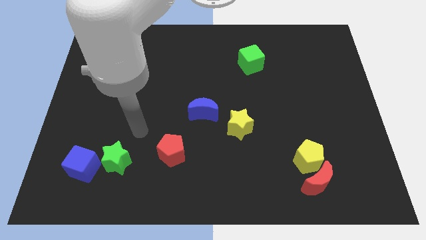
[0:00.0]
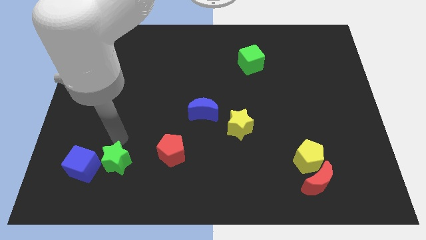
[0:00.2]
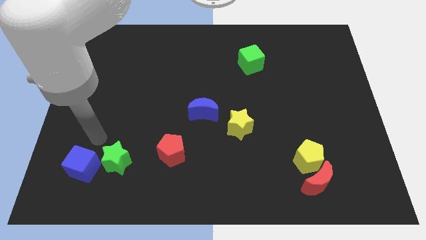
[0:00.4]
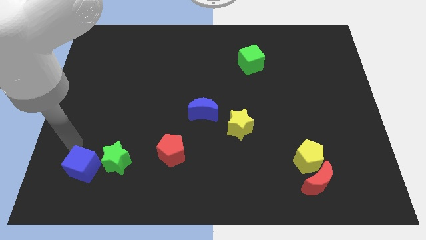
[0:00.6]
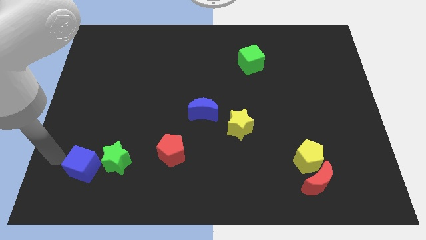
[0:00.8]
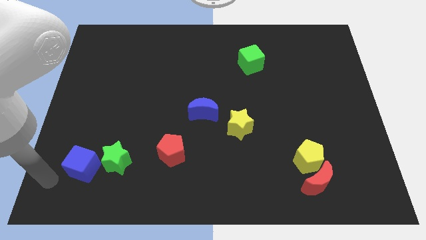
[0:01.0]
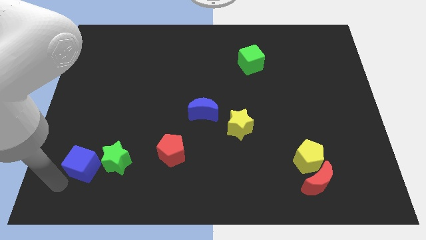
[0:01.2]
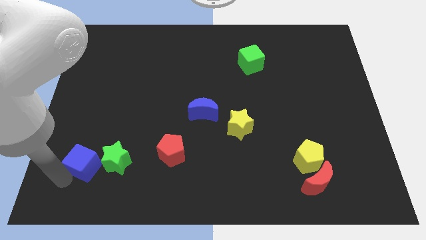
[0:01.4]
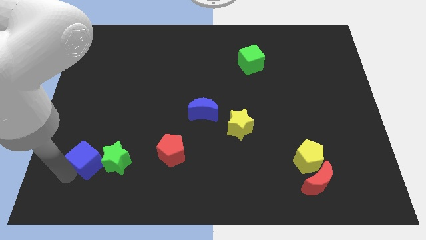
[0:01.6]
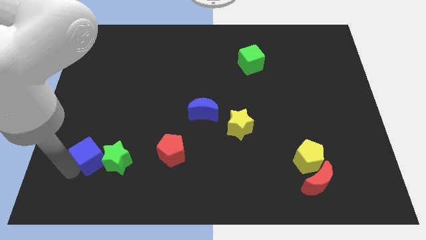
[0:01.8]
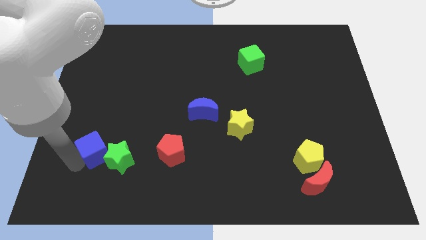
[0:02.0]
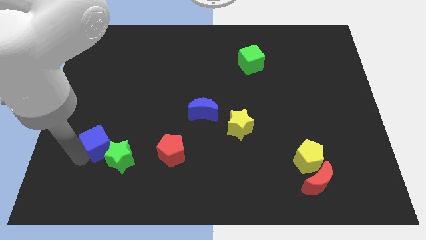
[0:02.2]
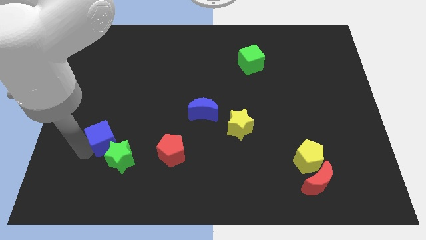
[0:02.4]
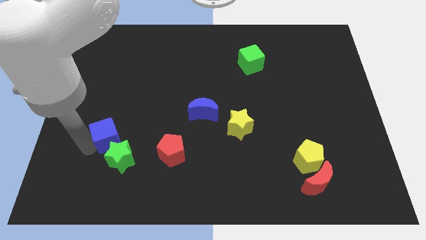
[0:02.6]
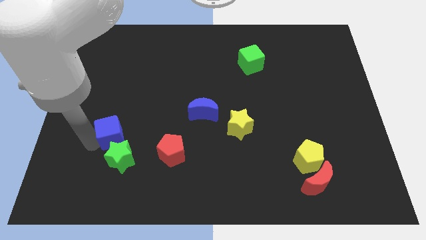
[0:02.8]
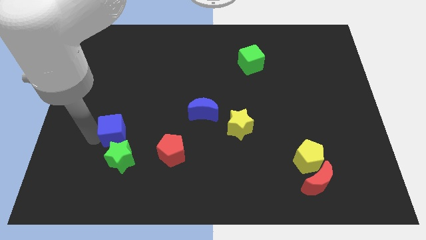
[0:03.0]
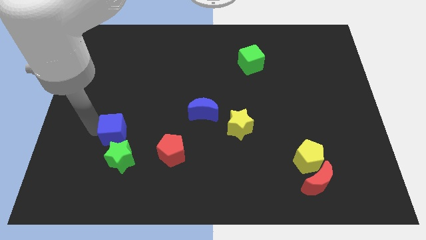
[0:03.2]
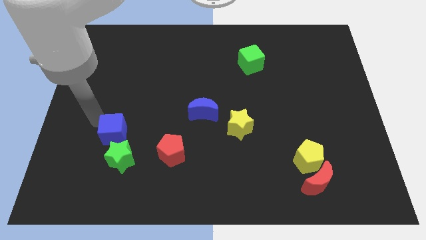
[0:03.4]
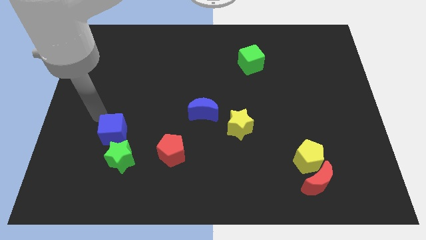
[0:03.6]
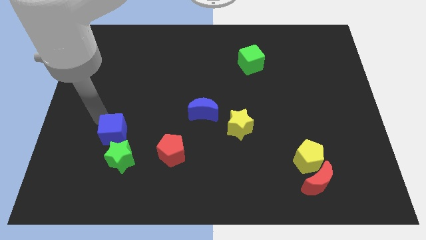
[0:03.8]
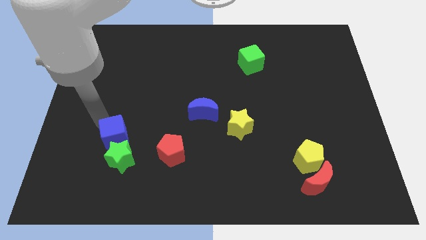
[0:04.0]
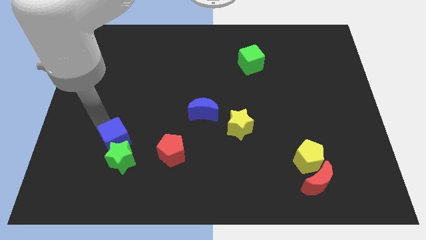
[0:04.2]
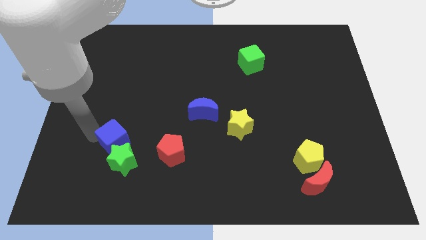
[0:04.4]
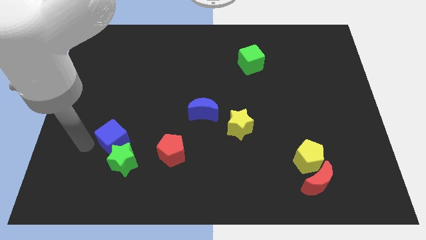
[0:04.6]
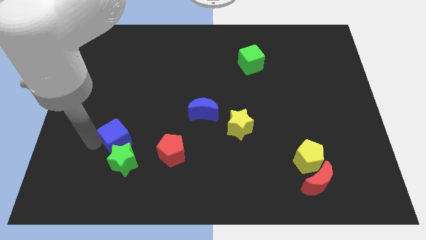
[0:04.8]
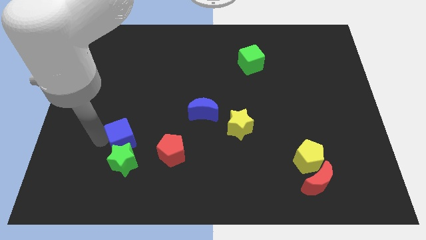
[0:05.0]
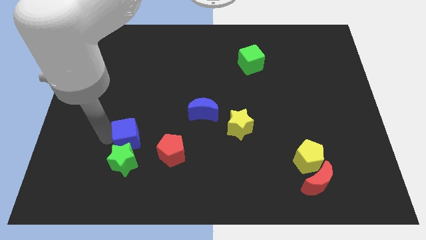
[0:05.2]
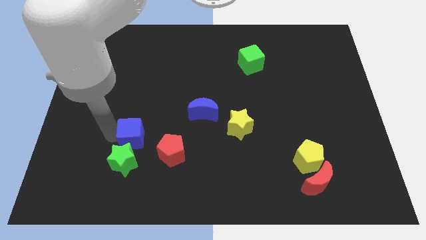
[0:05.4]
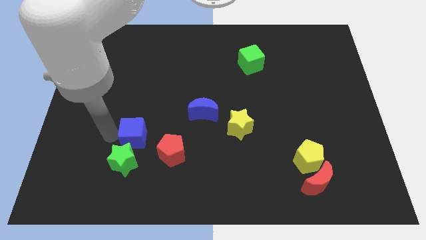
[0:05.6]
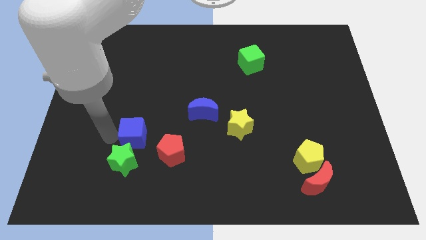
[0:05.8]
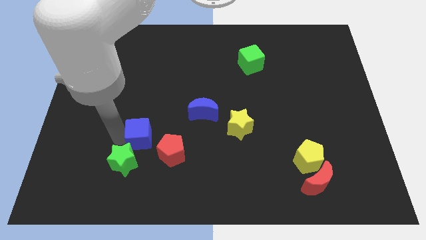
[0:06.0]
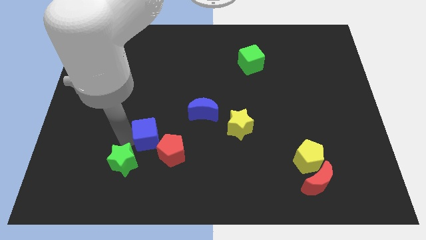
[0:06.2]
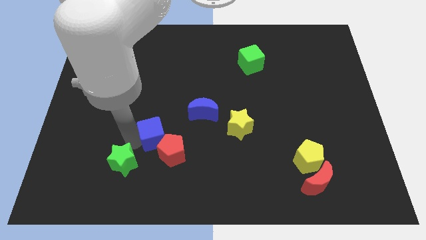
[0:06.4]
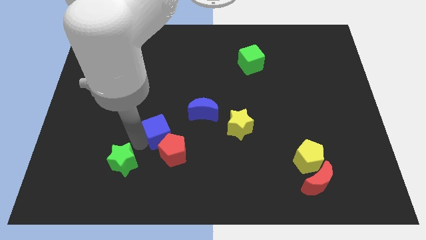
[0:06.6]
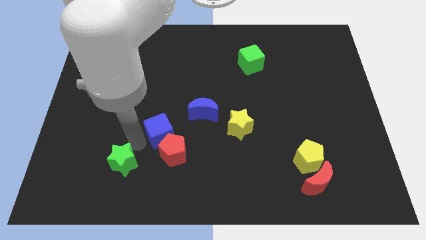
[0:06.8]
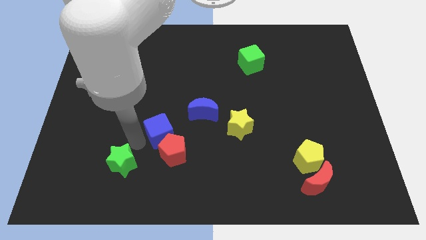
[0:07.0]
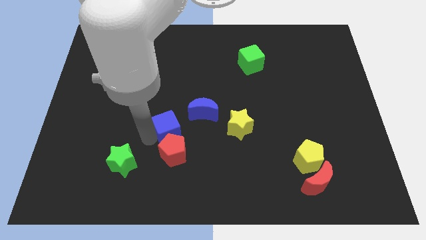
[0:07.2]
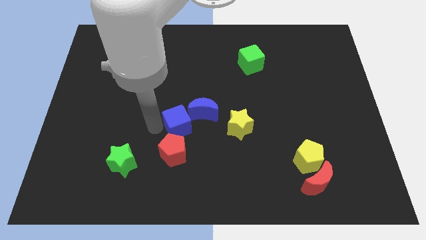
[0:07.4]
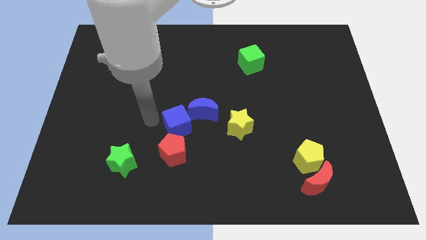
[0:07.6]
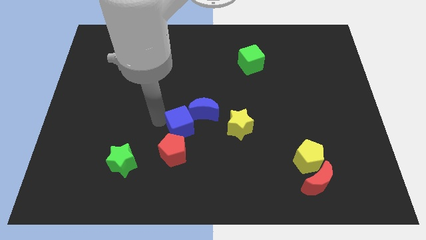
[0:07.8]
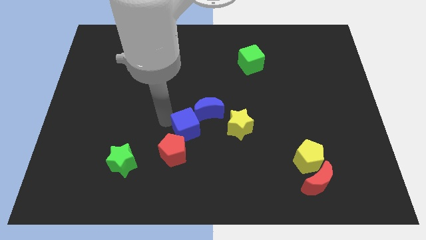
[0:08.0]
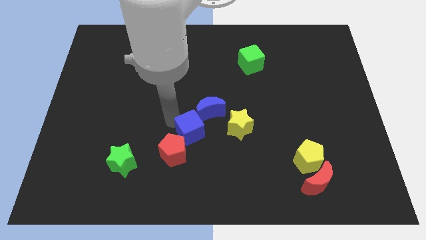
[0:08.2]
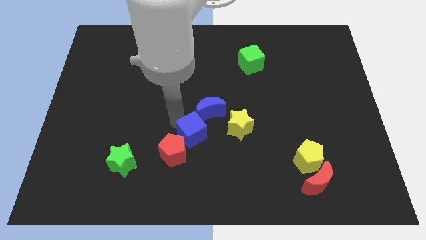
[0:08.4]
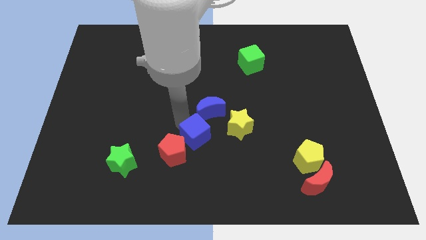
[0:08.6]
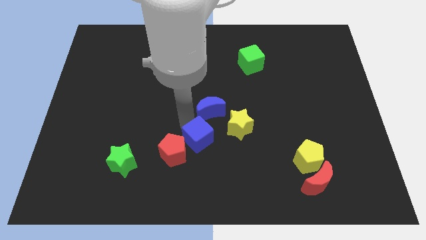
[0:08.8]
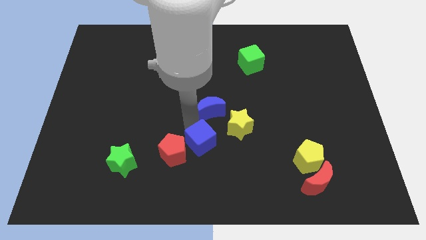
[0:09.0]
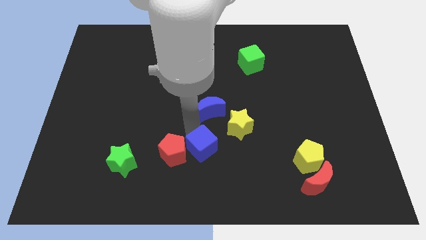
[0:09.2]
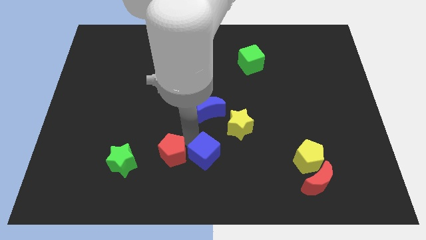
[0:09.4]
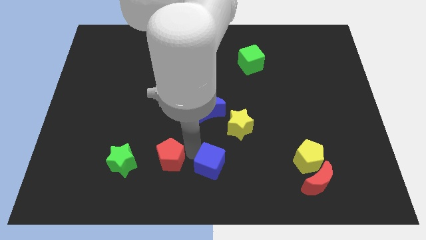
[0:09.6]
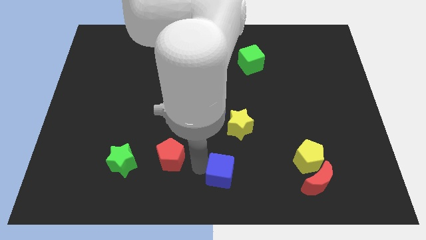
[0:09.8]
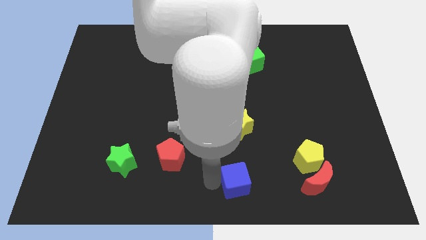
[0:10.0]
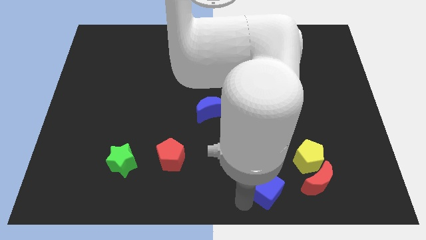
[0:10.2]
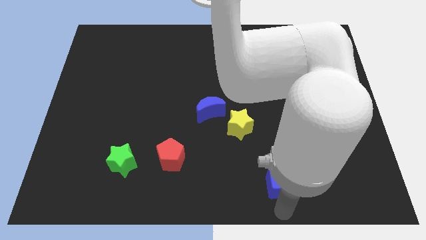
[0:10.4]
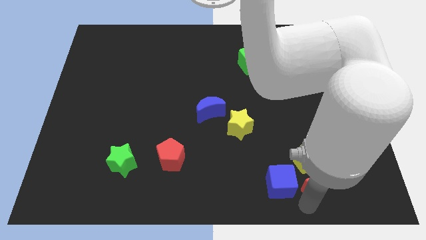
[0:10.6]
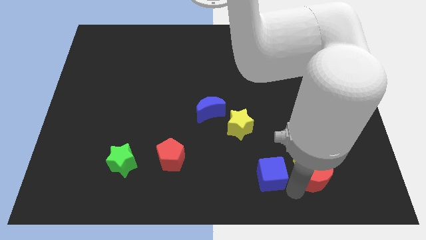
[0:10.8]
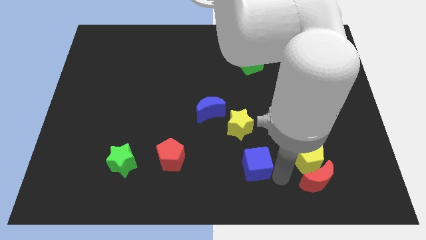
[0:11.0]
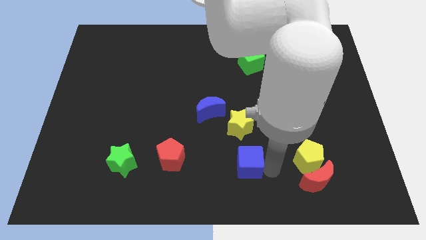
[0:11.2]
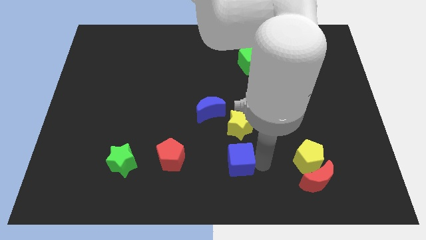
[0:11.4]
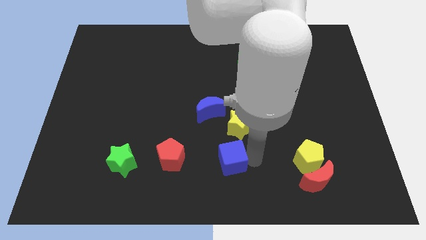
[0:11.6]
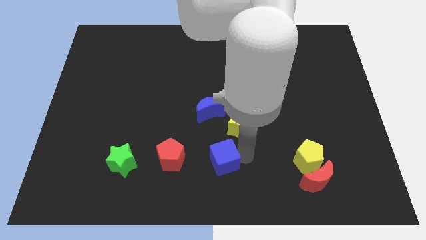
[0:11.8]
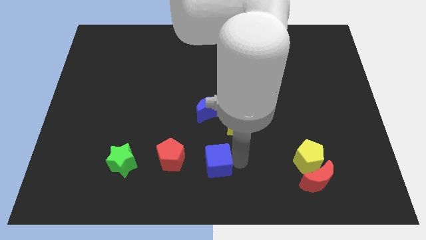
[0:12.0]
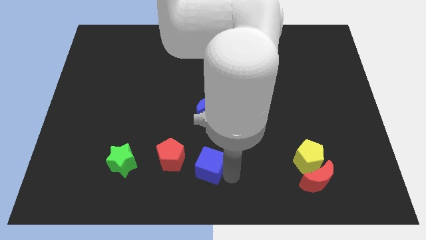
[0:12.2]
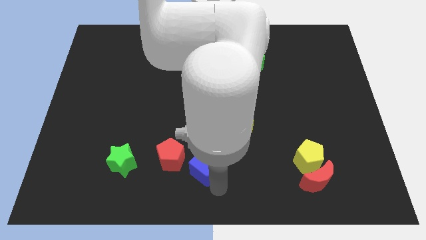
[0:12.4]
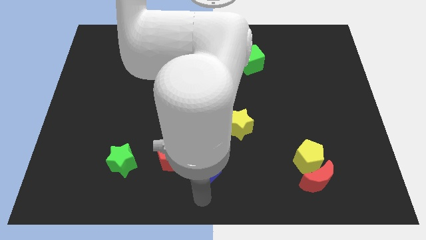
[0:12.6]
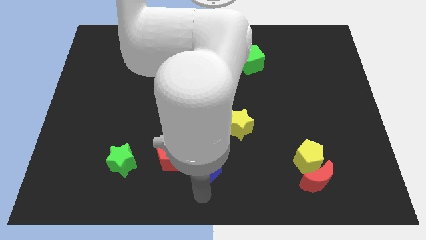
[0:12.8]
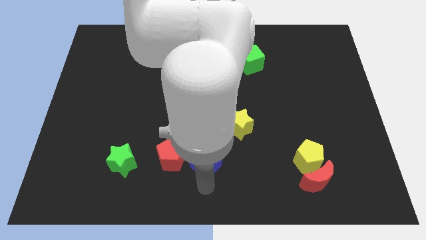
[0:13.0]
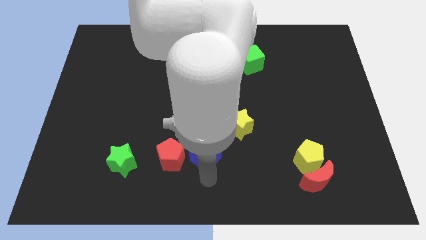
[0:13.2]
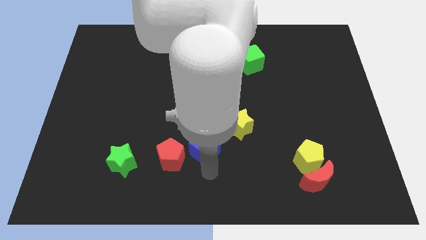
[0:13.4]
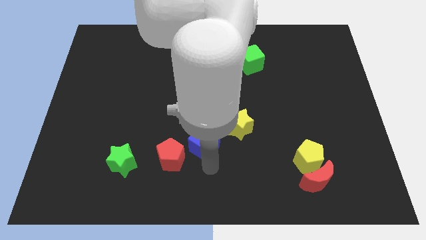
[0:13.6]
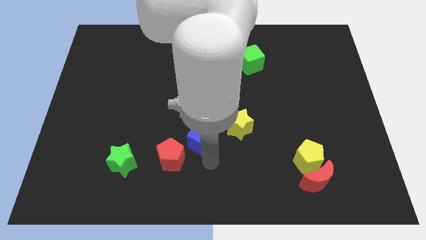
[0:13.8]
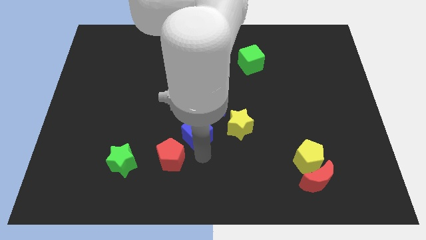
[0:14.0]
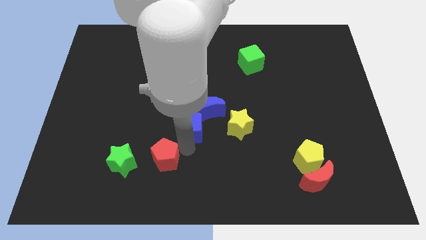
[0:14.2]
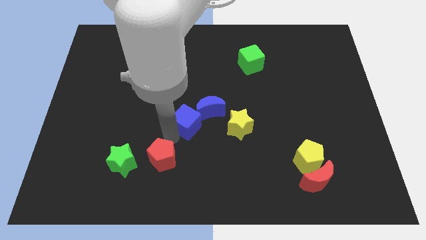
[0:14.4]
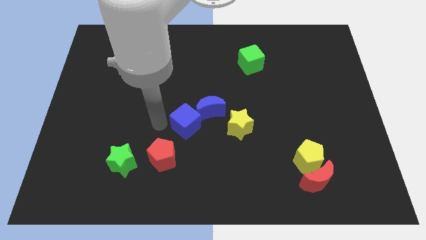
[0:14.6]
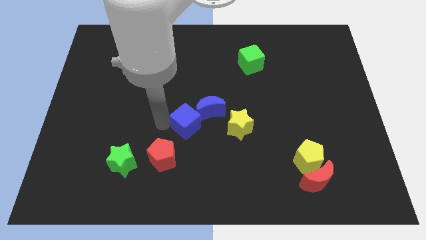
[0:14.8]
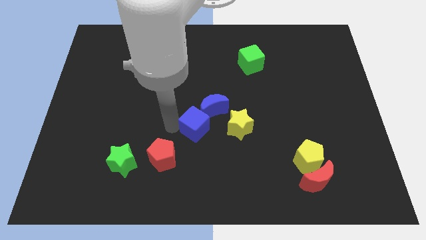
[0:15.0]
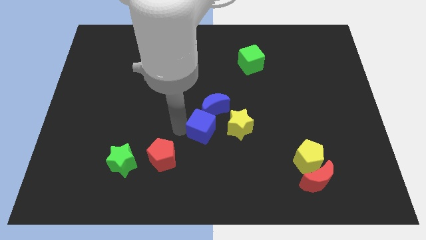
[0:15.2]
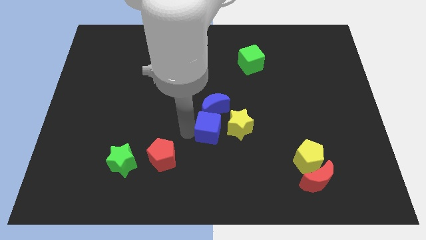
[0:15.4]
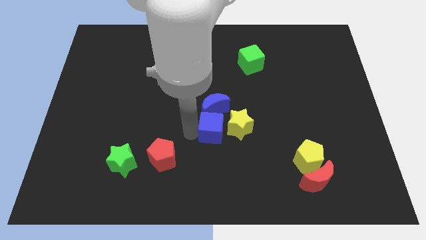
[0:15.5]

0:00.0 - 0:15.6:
push the blue cube to the yellow star
